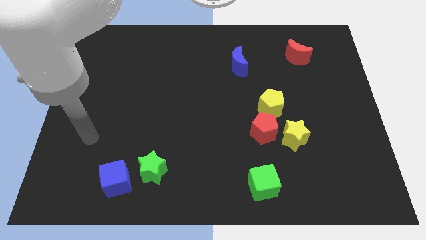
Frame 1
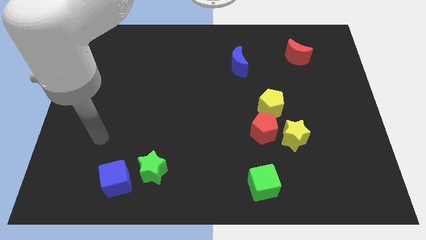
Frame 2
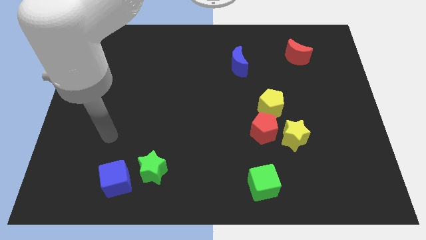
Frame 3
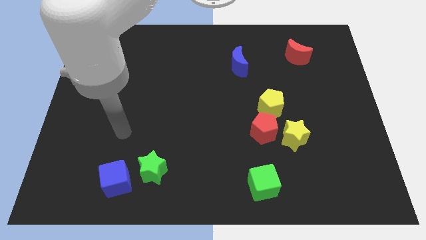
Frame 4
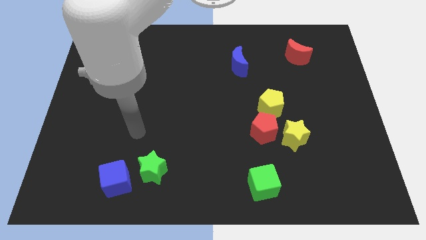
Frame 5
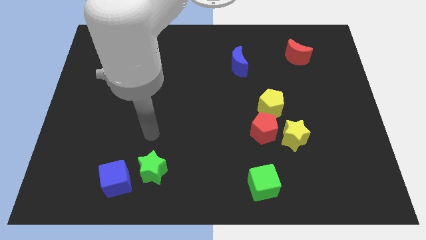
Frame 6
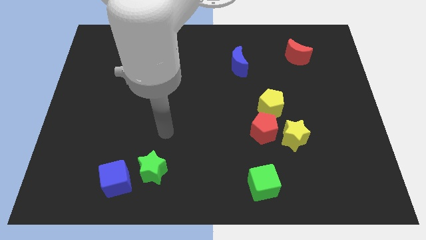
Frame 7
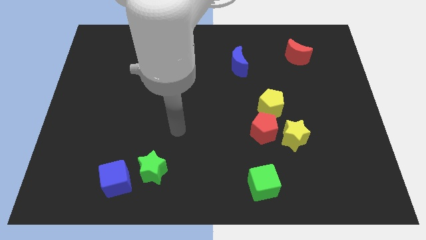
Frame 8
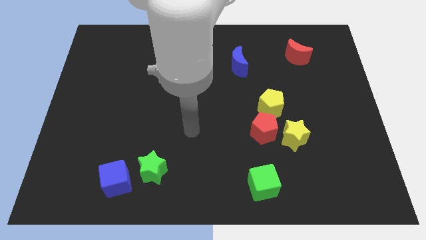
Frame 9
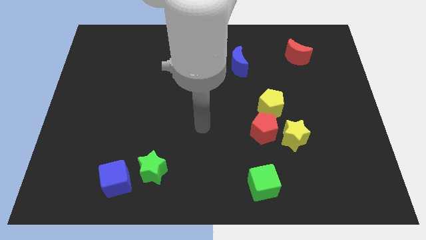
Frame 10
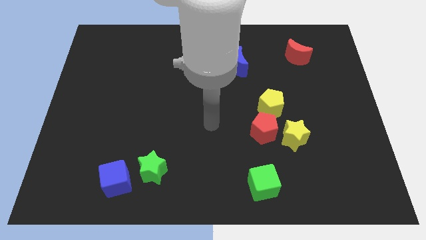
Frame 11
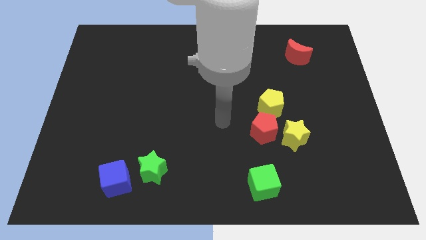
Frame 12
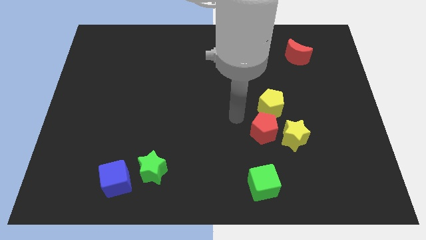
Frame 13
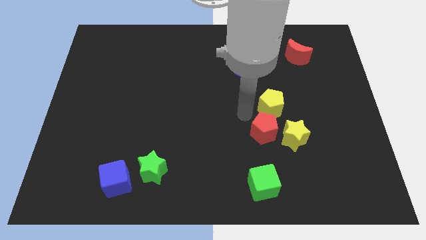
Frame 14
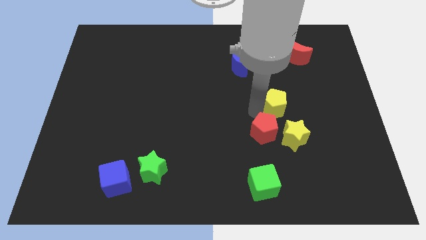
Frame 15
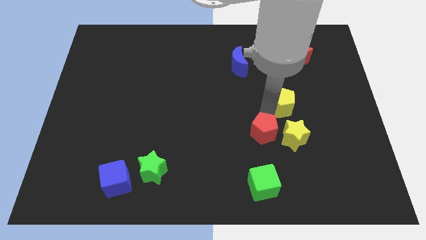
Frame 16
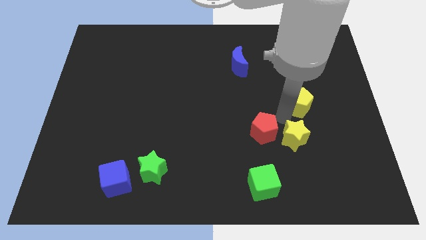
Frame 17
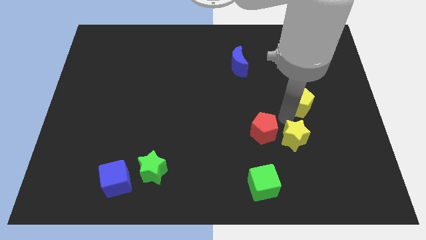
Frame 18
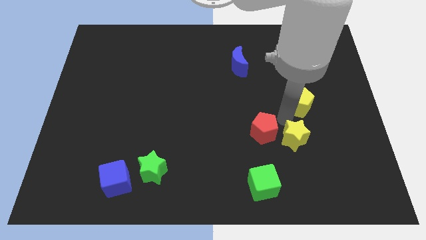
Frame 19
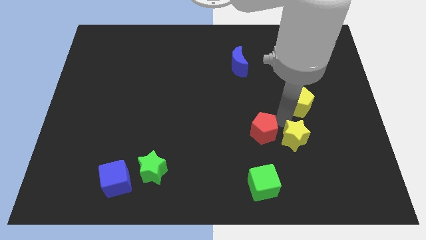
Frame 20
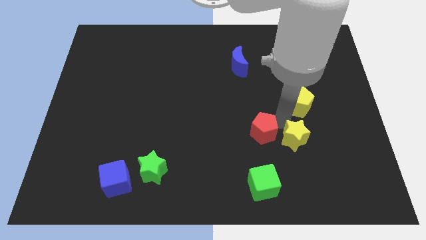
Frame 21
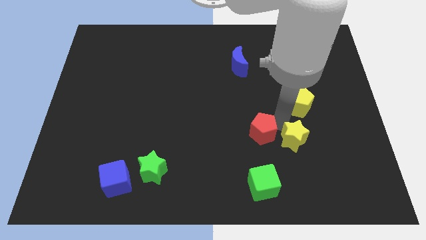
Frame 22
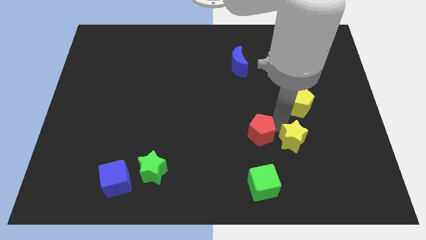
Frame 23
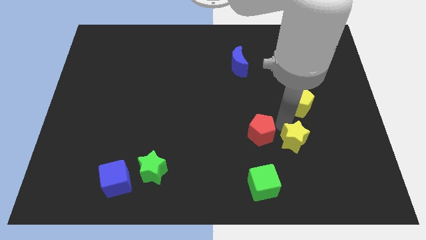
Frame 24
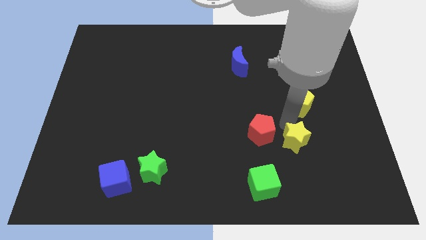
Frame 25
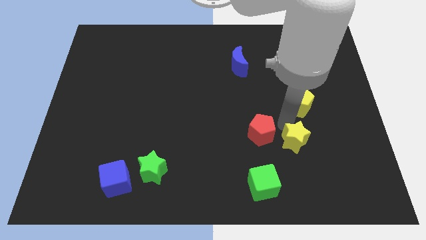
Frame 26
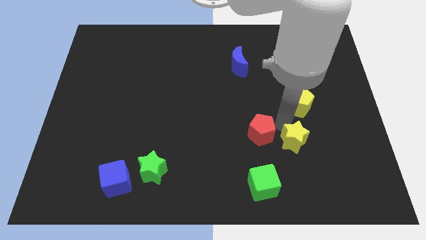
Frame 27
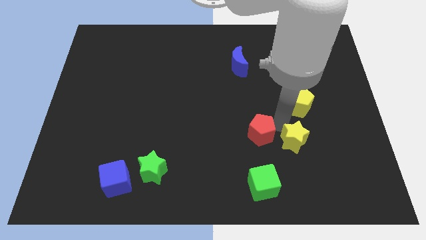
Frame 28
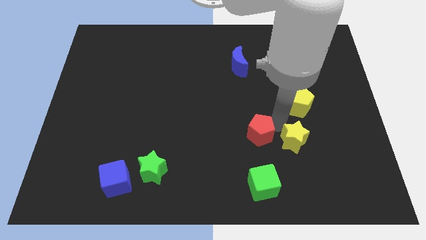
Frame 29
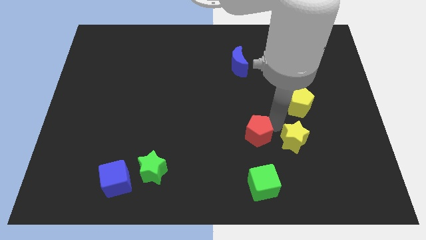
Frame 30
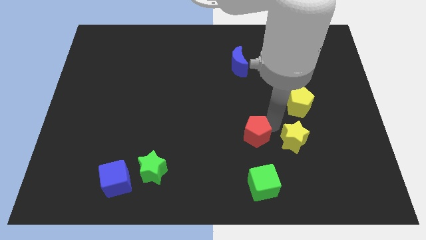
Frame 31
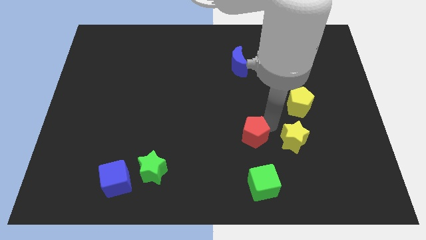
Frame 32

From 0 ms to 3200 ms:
pull the red pentagon apart from the yellow star and yellow pentagon

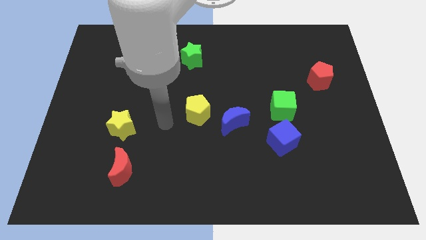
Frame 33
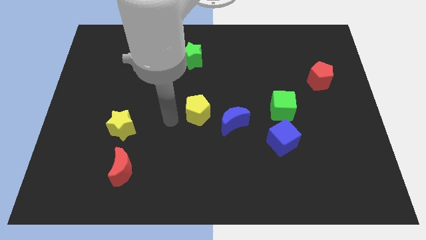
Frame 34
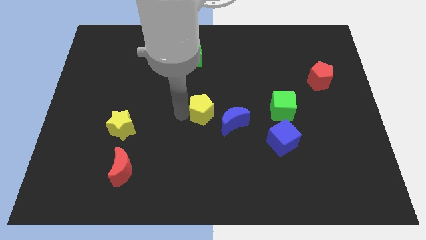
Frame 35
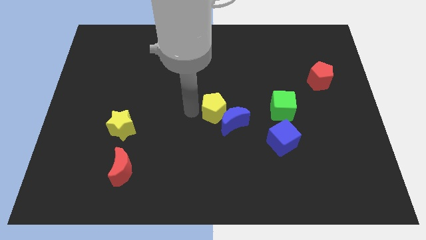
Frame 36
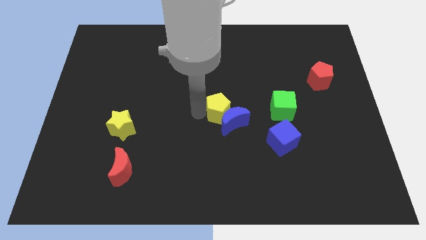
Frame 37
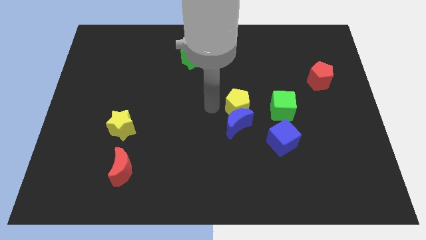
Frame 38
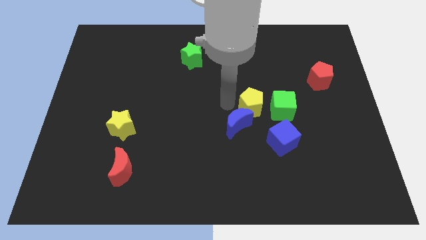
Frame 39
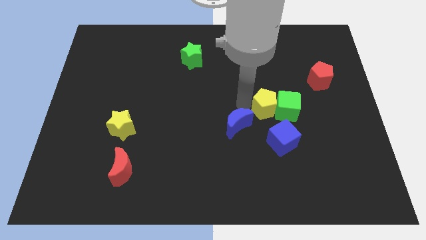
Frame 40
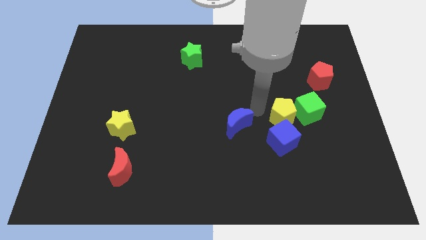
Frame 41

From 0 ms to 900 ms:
move the blue moon away from the yellow pentagon

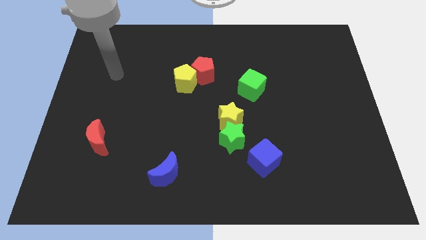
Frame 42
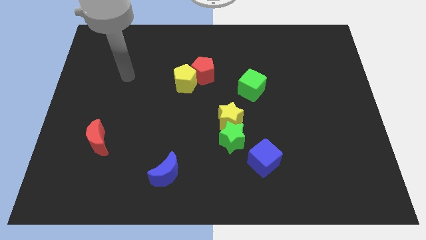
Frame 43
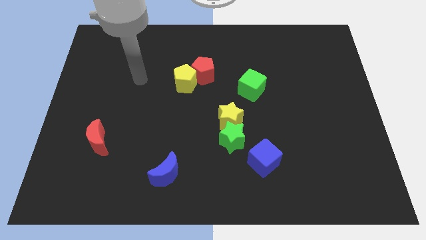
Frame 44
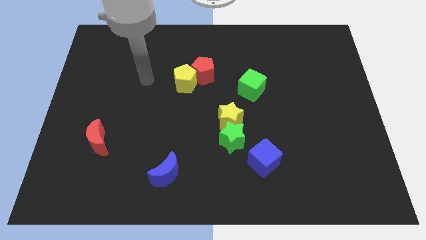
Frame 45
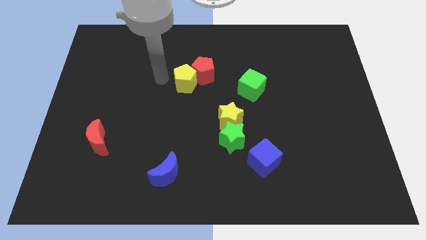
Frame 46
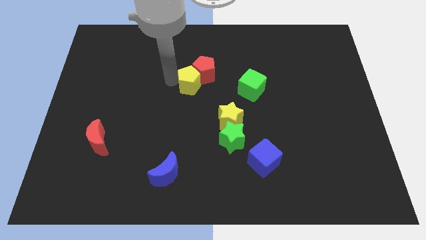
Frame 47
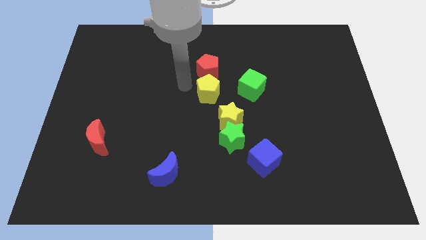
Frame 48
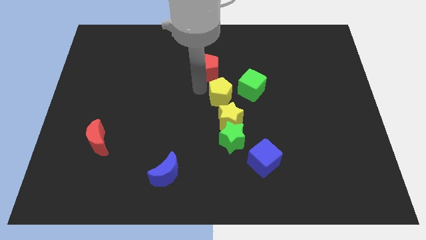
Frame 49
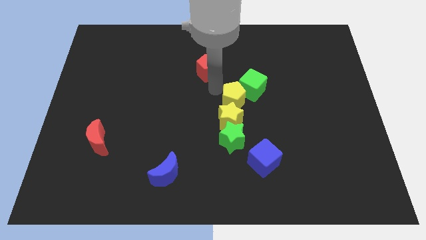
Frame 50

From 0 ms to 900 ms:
separate the red pentagon from the yellow pentagon

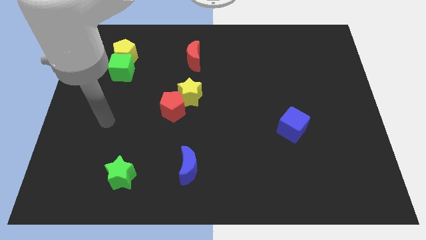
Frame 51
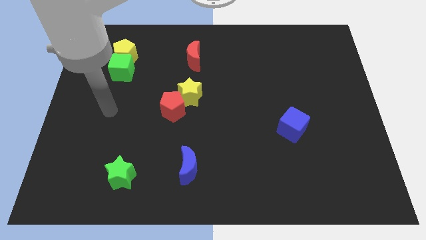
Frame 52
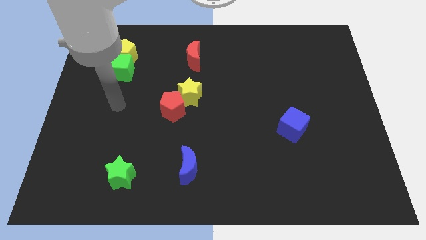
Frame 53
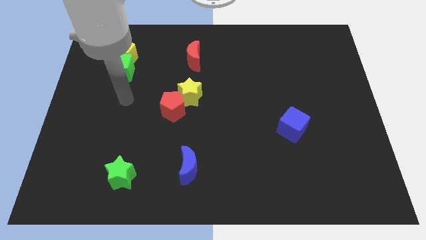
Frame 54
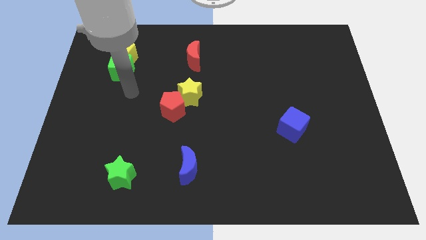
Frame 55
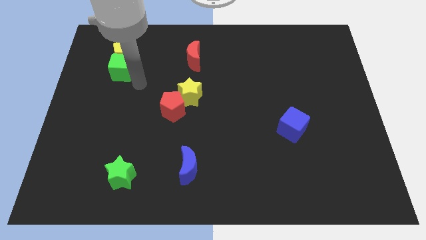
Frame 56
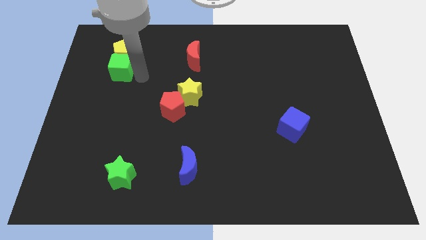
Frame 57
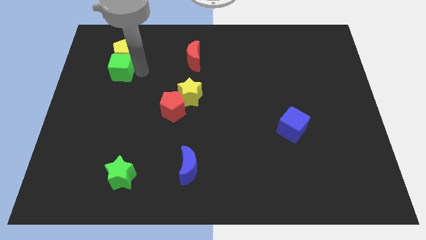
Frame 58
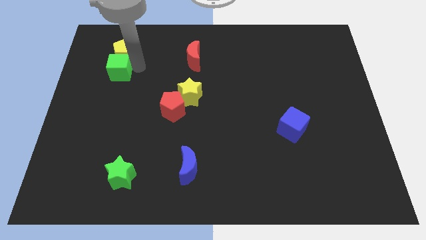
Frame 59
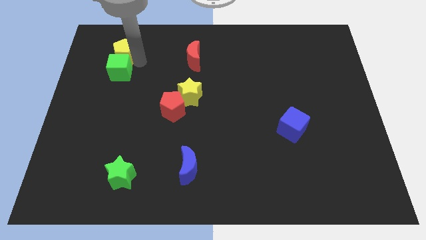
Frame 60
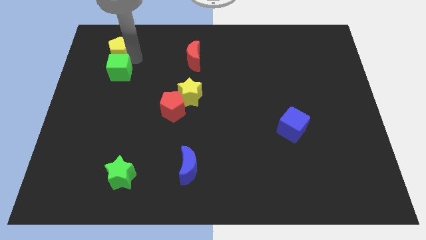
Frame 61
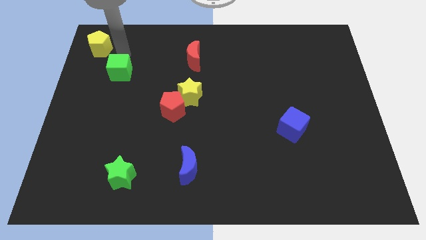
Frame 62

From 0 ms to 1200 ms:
separate the green cube from the yellow pentagon

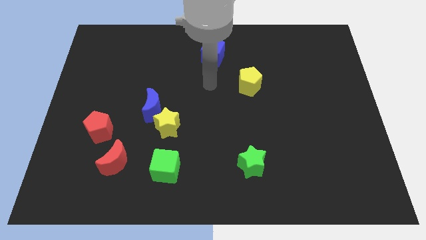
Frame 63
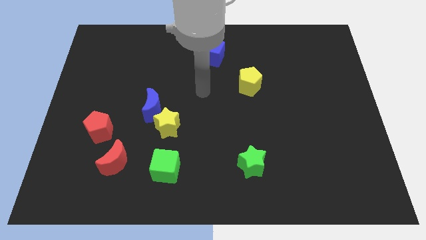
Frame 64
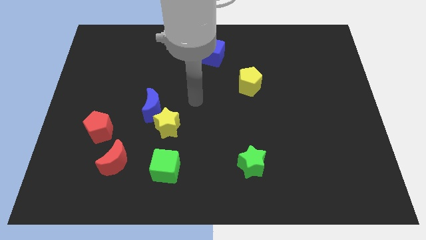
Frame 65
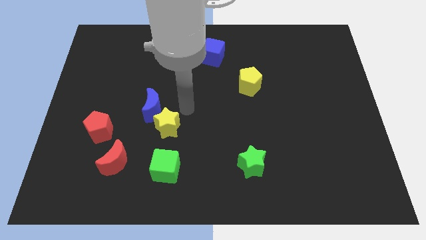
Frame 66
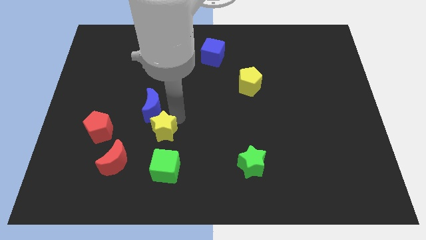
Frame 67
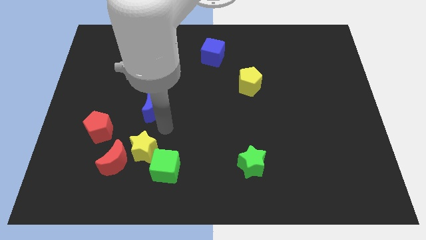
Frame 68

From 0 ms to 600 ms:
separate the blue moon from the yellow star

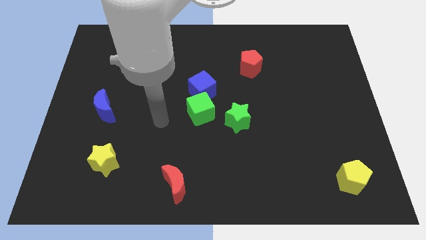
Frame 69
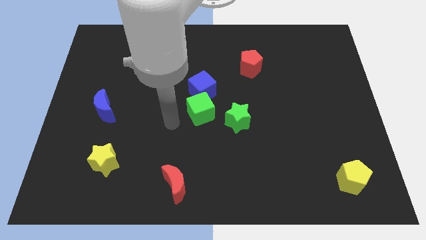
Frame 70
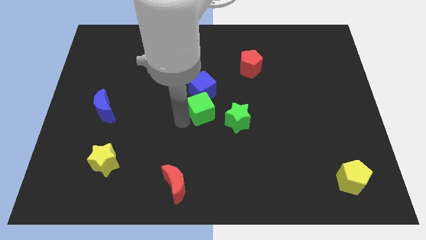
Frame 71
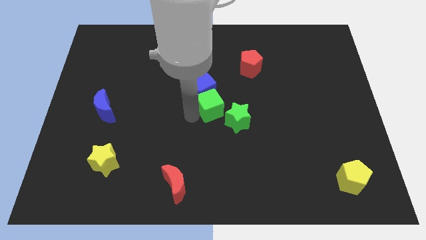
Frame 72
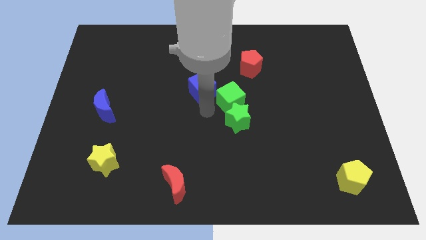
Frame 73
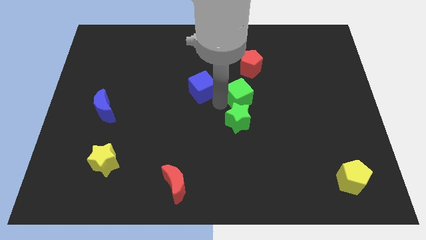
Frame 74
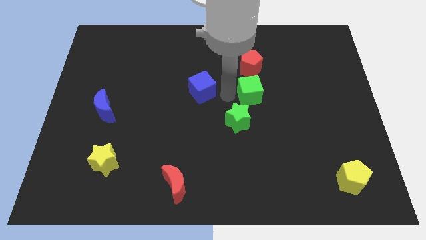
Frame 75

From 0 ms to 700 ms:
move the blue cube away from the green cube

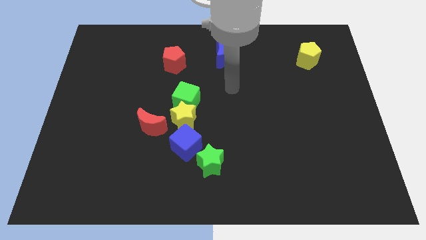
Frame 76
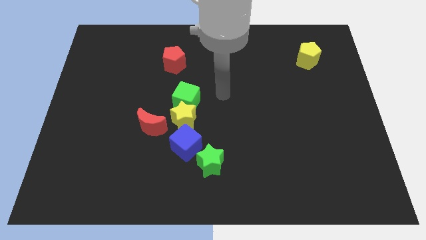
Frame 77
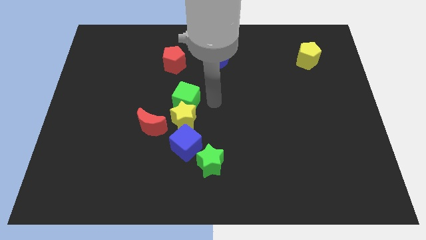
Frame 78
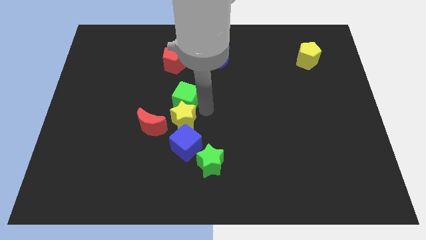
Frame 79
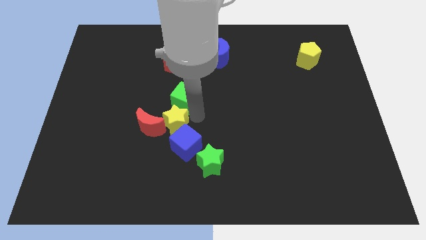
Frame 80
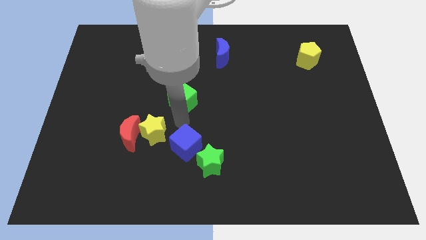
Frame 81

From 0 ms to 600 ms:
separate the green cube from the yellow star

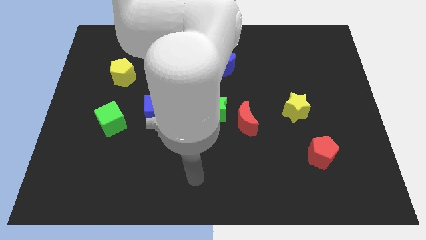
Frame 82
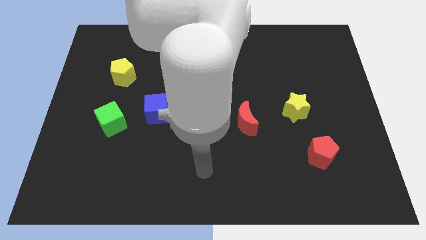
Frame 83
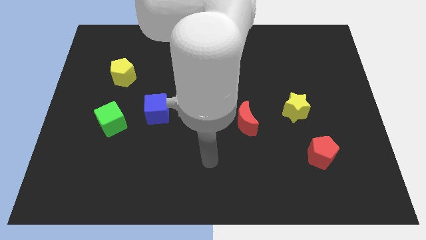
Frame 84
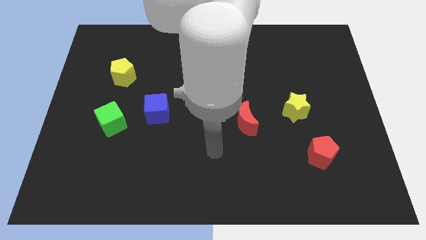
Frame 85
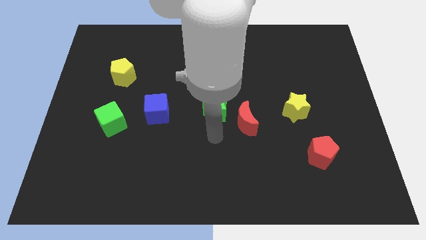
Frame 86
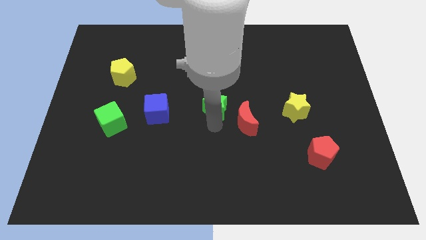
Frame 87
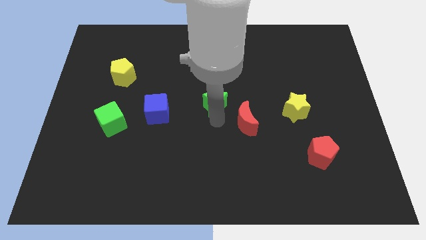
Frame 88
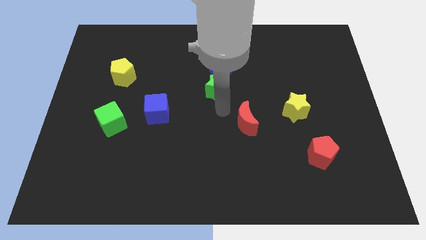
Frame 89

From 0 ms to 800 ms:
move the red moon away from the green star

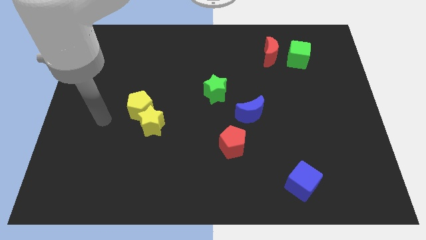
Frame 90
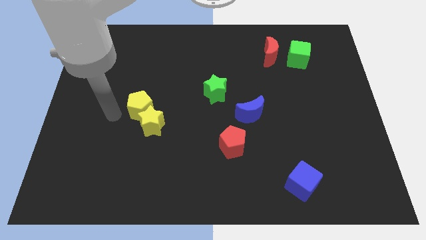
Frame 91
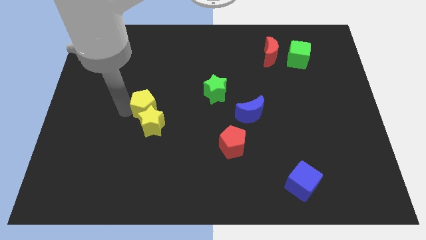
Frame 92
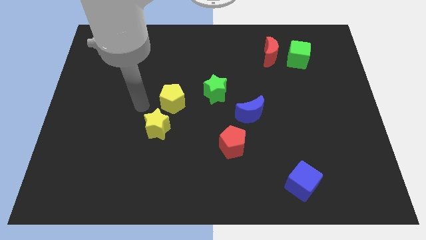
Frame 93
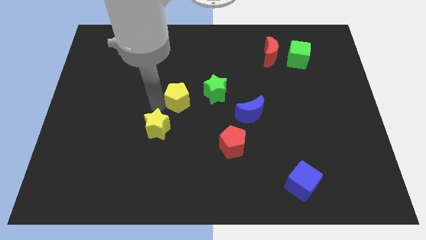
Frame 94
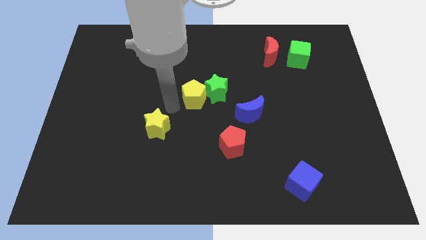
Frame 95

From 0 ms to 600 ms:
pull the yellow star apart from the yellow pentagon
